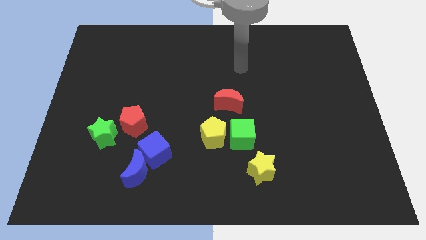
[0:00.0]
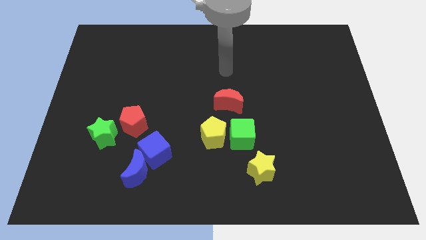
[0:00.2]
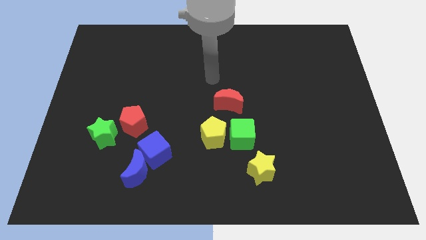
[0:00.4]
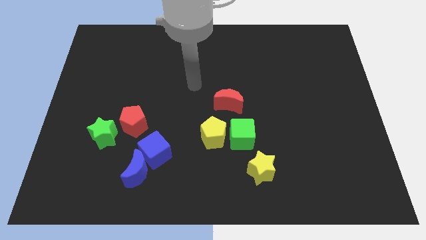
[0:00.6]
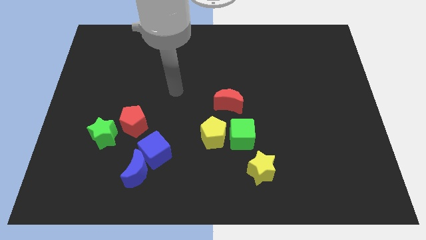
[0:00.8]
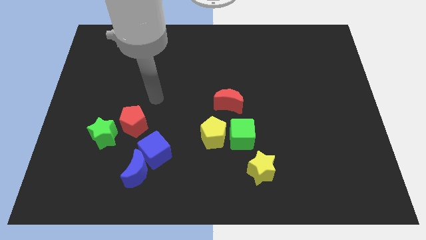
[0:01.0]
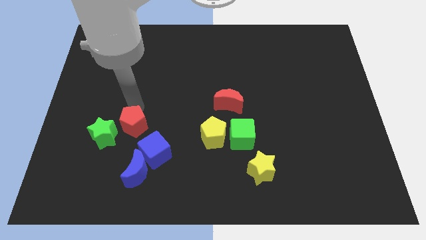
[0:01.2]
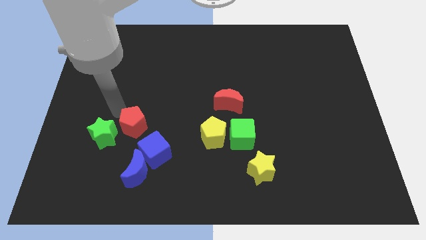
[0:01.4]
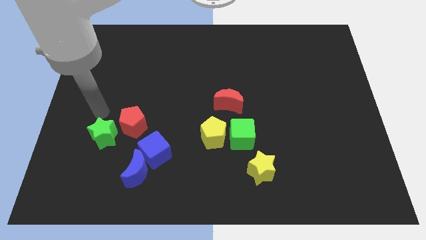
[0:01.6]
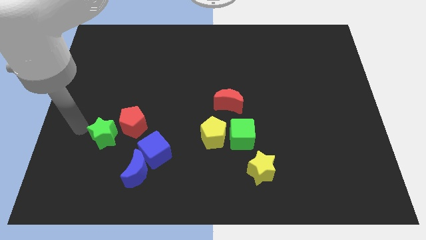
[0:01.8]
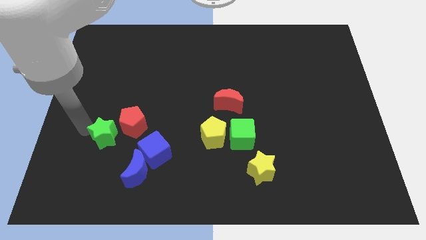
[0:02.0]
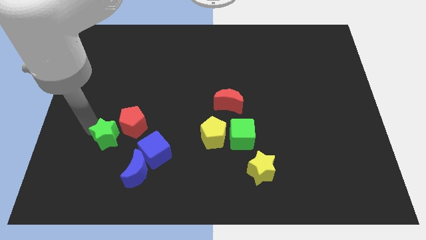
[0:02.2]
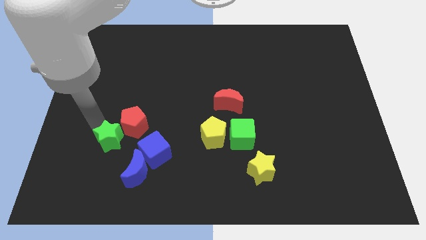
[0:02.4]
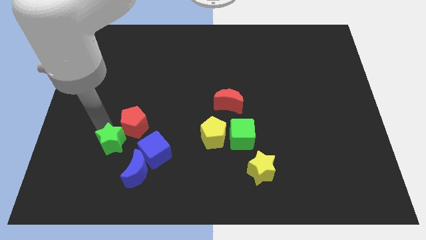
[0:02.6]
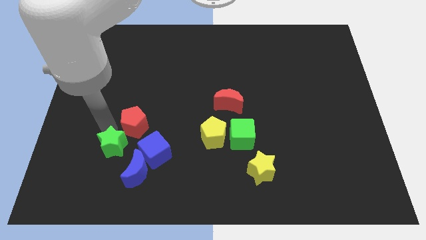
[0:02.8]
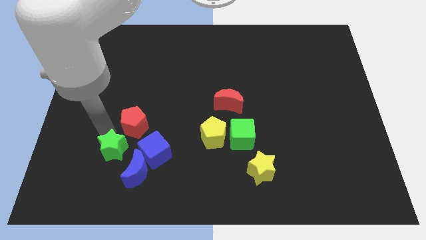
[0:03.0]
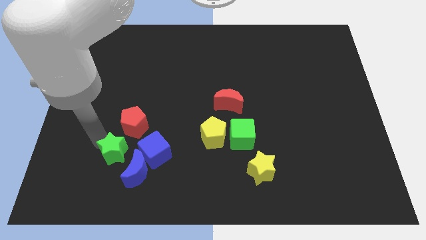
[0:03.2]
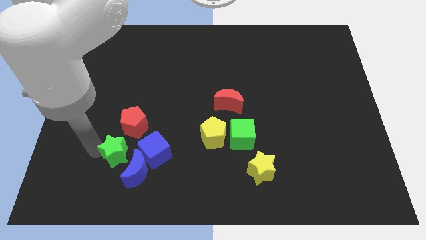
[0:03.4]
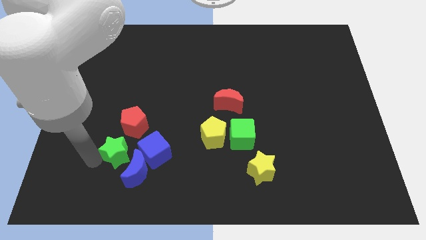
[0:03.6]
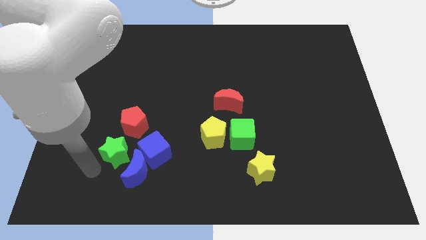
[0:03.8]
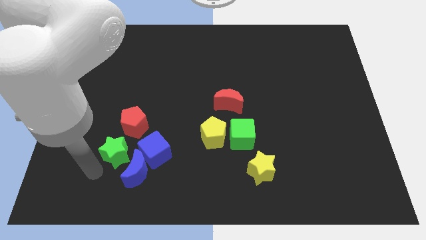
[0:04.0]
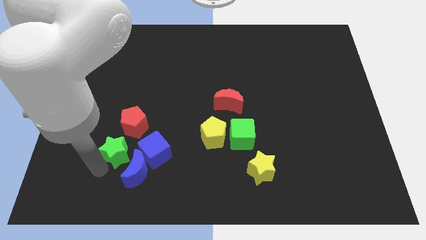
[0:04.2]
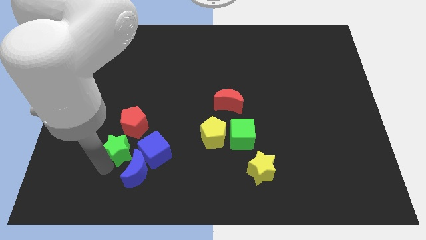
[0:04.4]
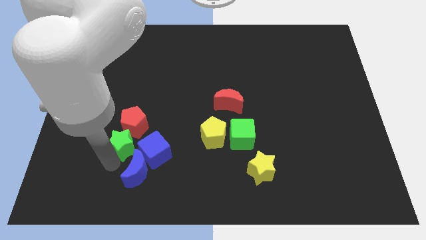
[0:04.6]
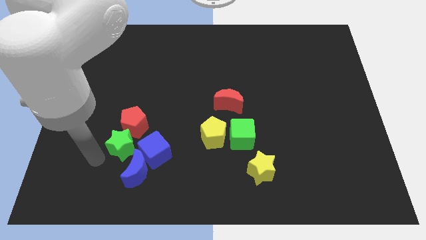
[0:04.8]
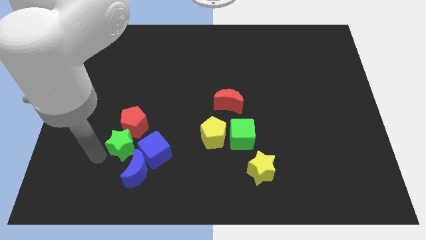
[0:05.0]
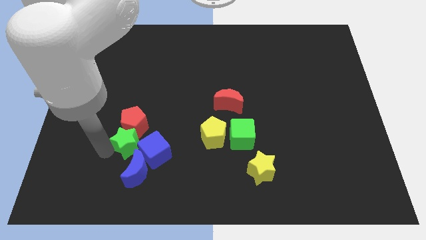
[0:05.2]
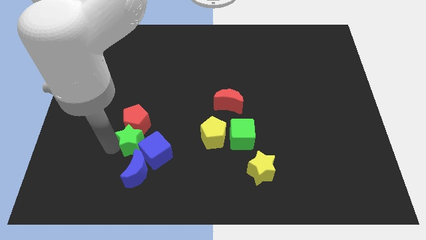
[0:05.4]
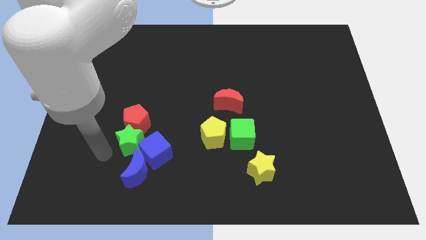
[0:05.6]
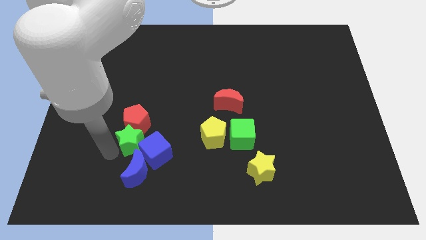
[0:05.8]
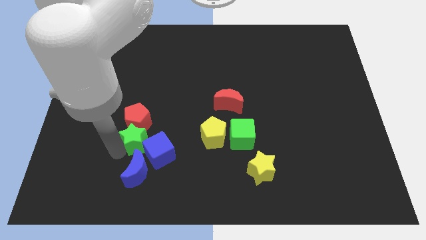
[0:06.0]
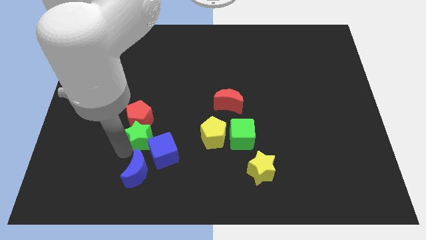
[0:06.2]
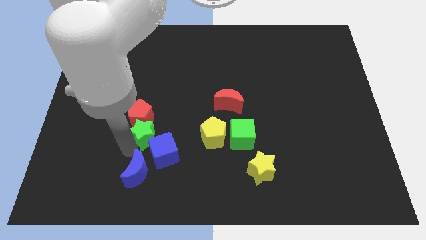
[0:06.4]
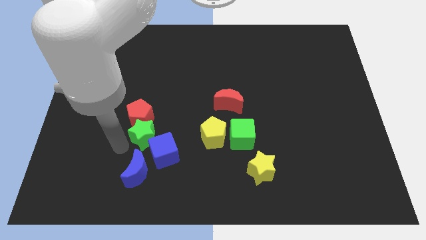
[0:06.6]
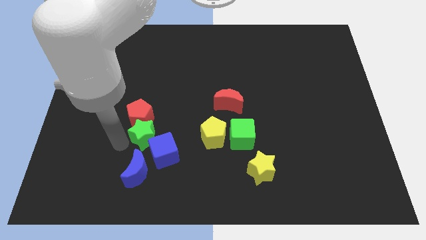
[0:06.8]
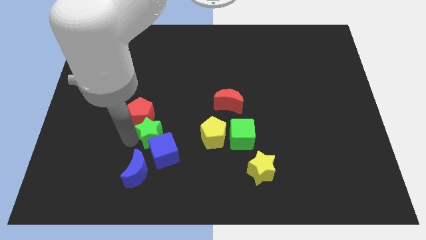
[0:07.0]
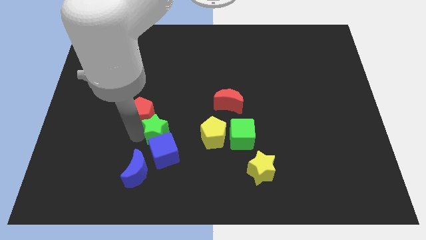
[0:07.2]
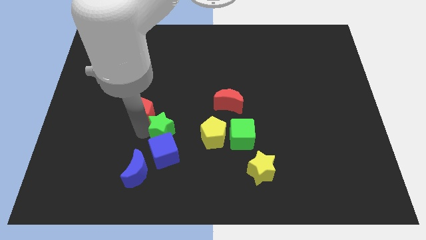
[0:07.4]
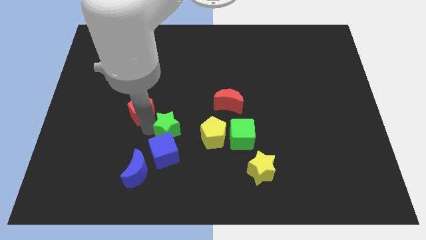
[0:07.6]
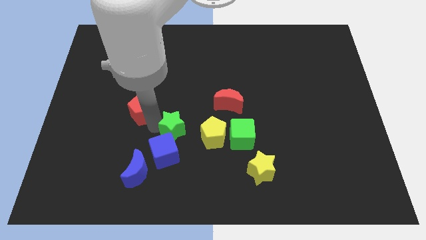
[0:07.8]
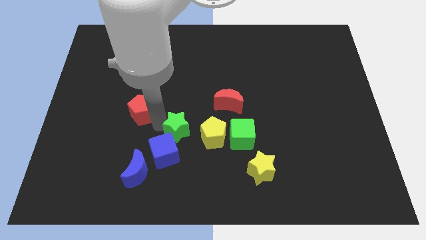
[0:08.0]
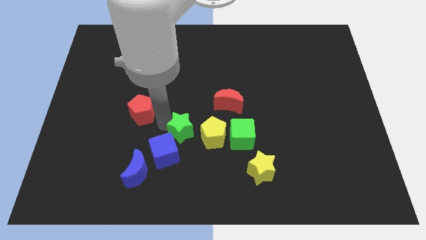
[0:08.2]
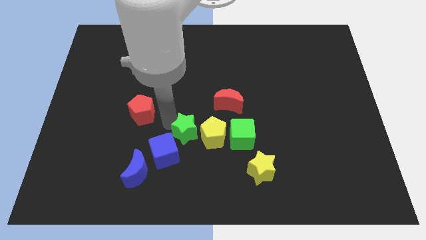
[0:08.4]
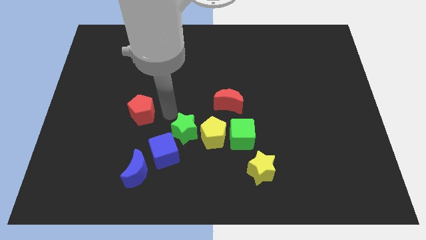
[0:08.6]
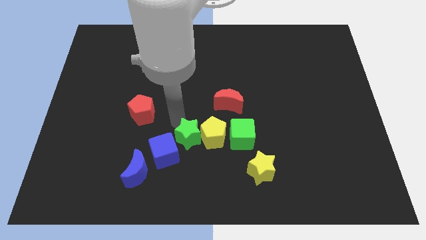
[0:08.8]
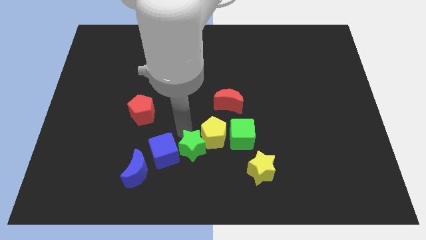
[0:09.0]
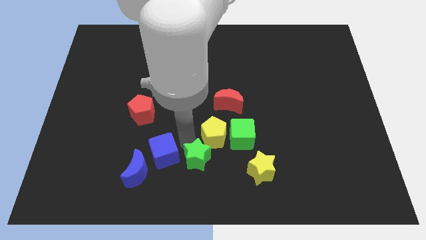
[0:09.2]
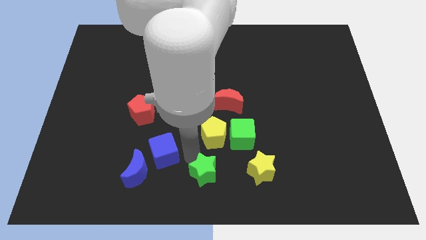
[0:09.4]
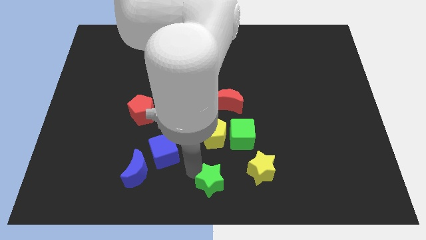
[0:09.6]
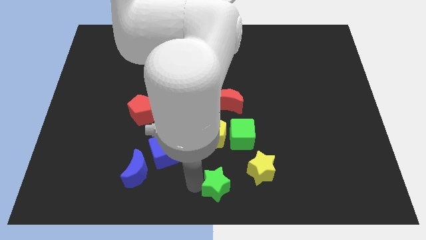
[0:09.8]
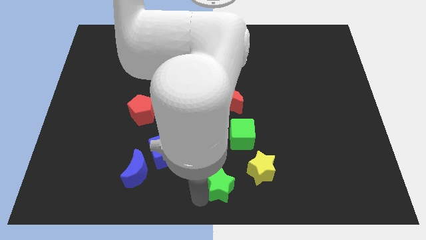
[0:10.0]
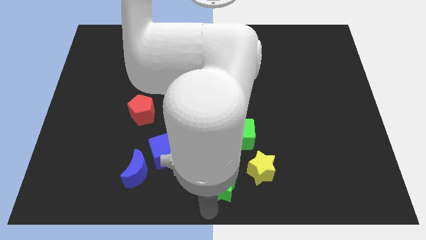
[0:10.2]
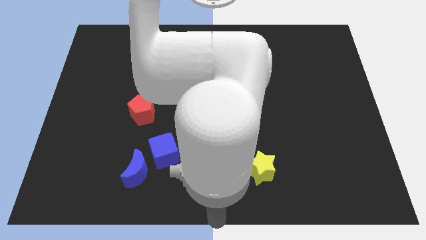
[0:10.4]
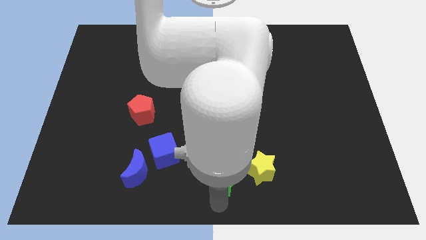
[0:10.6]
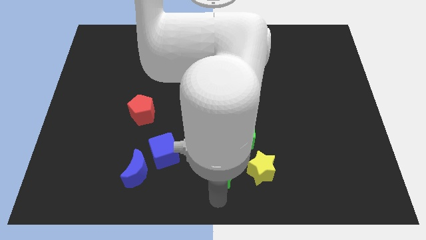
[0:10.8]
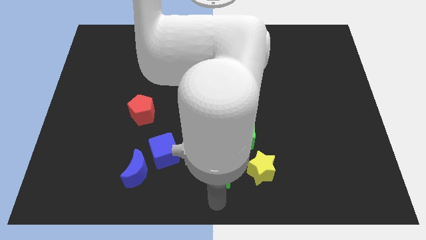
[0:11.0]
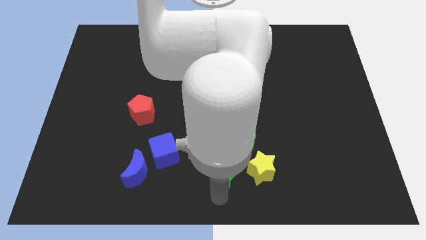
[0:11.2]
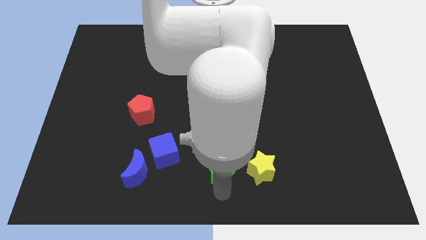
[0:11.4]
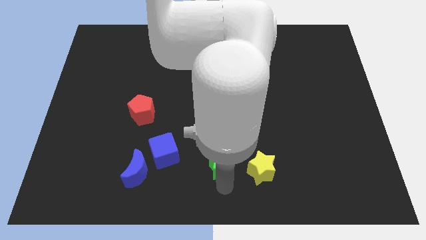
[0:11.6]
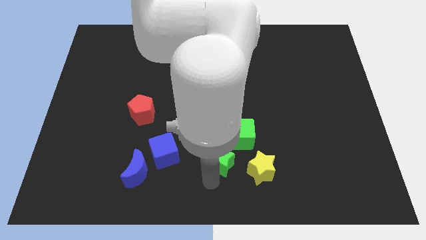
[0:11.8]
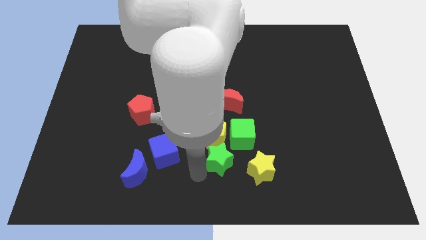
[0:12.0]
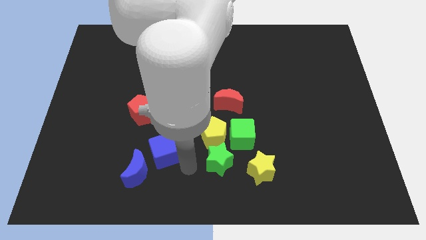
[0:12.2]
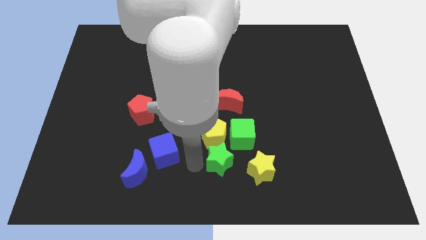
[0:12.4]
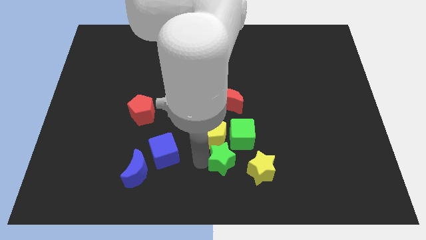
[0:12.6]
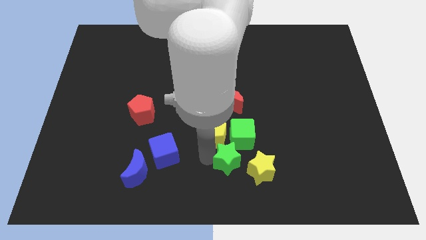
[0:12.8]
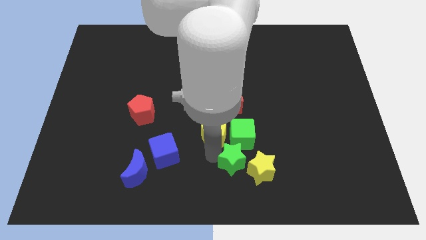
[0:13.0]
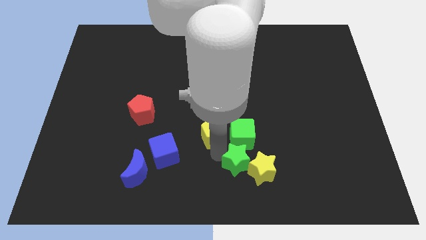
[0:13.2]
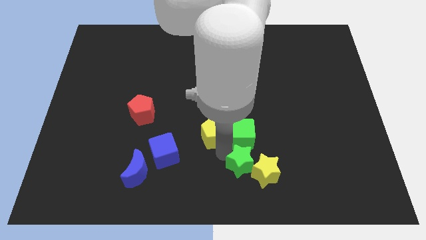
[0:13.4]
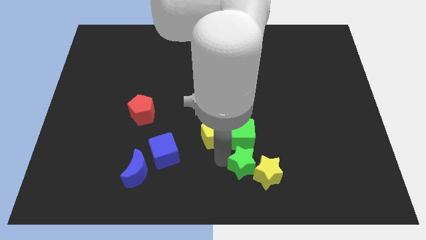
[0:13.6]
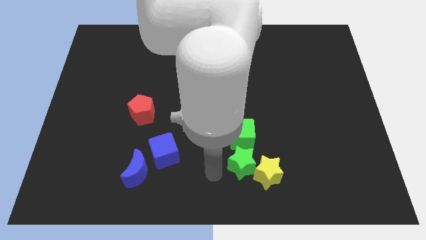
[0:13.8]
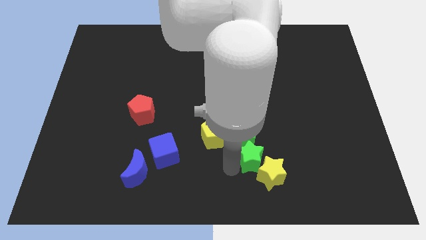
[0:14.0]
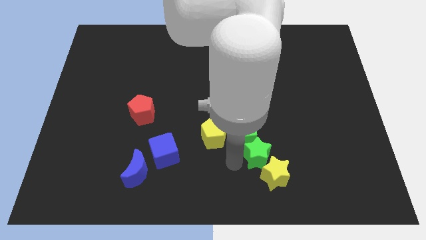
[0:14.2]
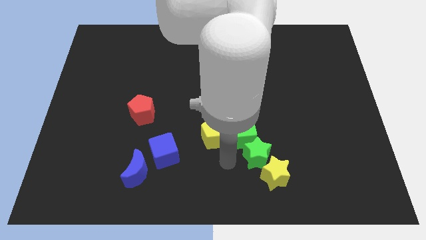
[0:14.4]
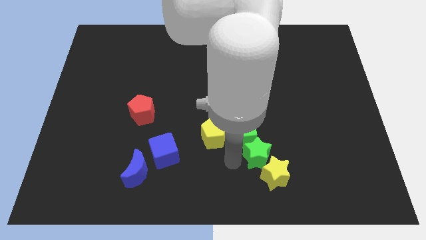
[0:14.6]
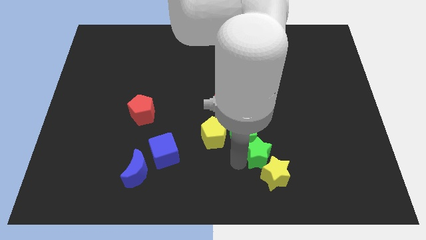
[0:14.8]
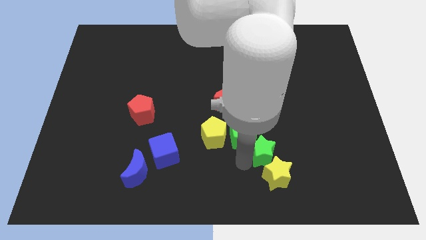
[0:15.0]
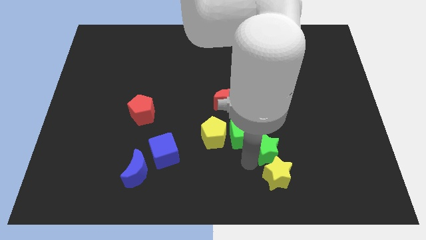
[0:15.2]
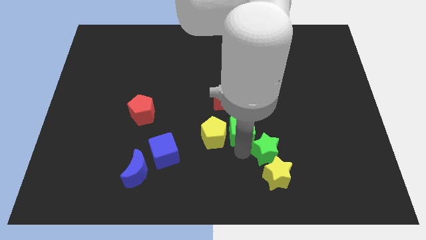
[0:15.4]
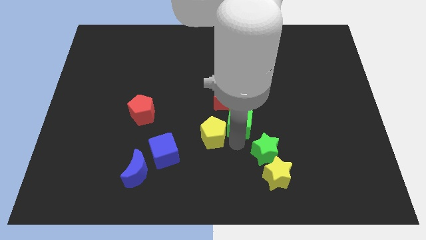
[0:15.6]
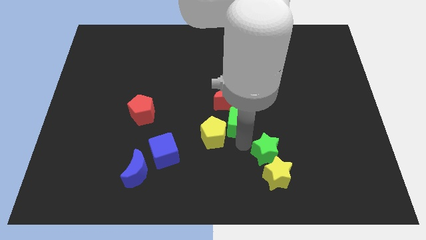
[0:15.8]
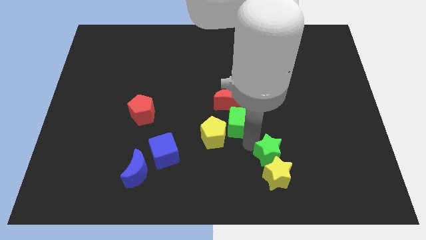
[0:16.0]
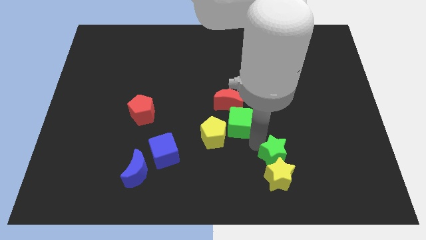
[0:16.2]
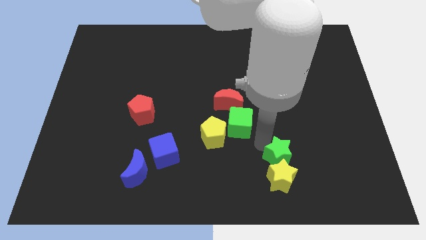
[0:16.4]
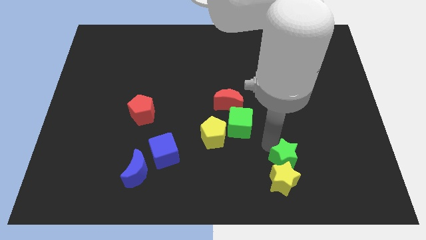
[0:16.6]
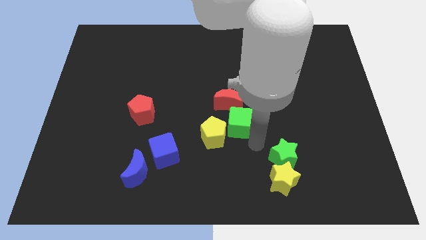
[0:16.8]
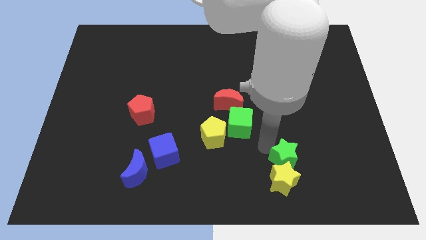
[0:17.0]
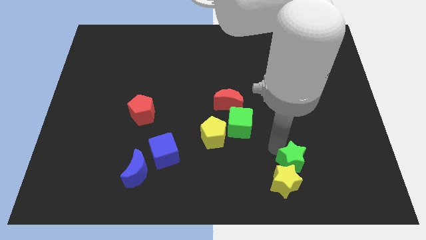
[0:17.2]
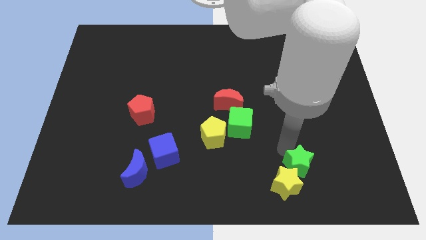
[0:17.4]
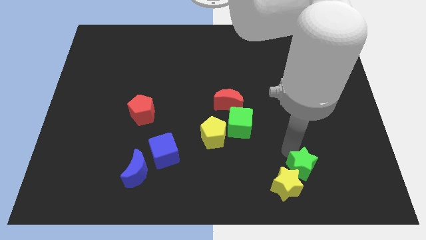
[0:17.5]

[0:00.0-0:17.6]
slide the green star just right of the yellow star
